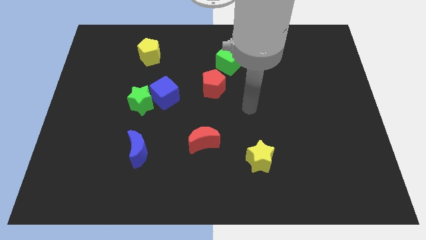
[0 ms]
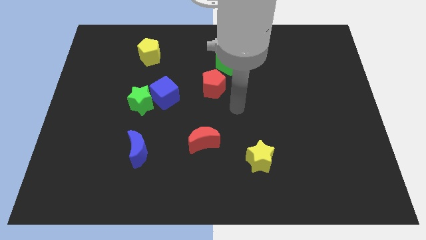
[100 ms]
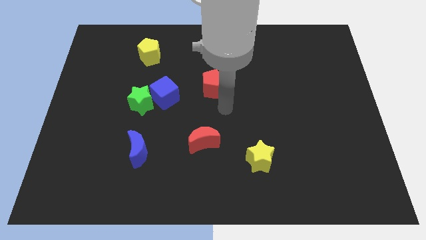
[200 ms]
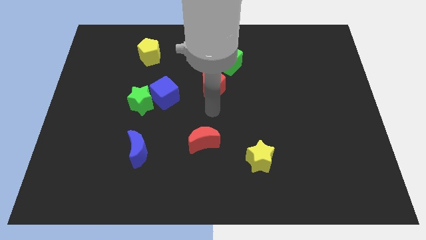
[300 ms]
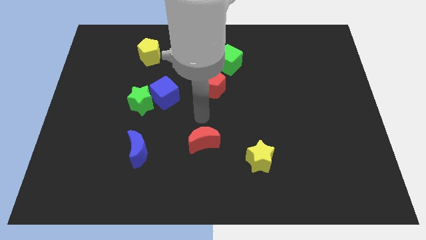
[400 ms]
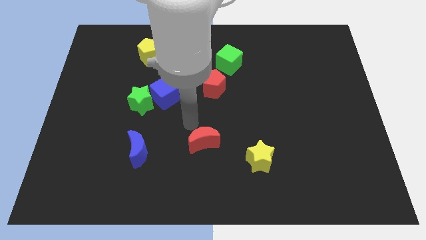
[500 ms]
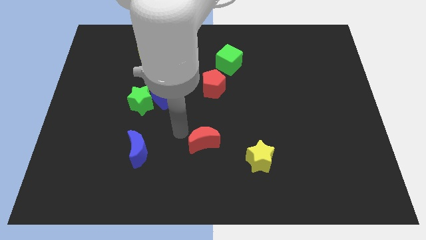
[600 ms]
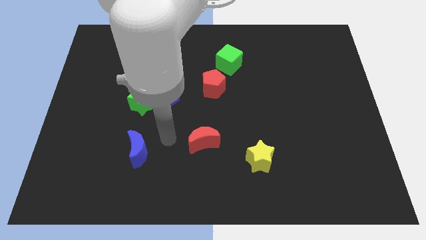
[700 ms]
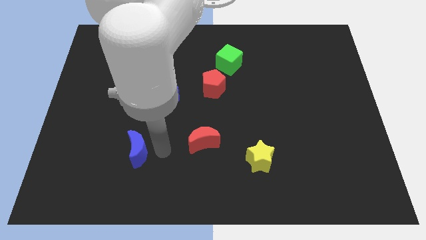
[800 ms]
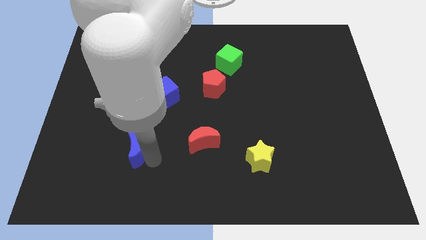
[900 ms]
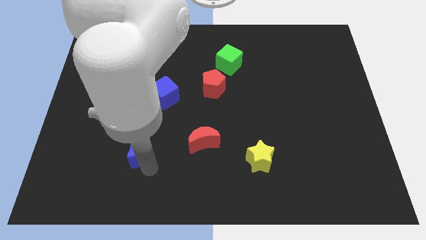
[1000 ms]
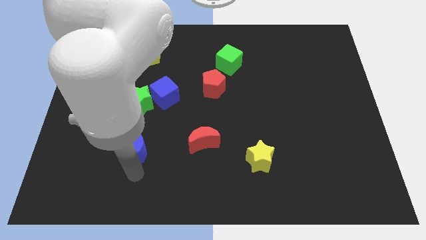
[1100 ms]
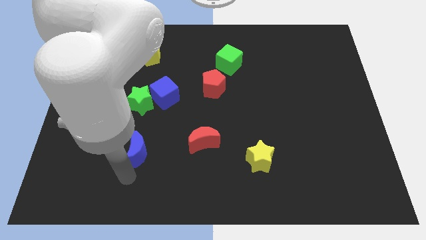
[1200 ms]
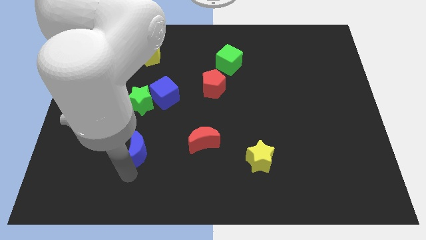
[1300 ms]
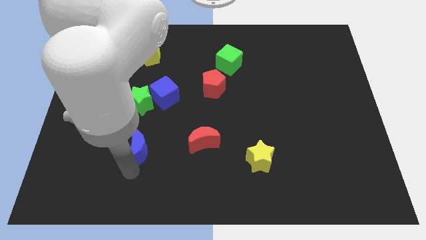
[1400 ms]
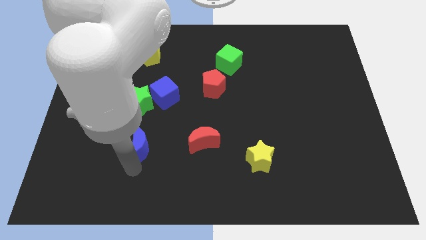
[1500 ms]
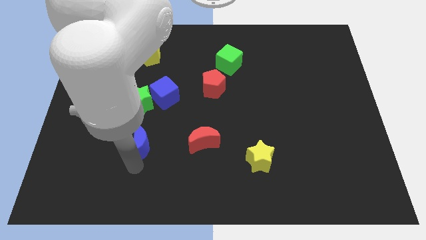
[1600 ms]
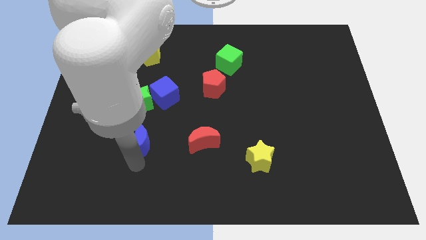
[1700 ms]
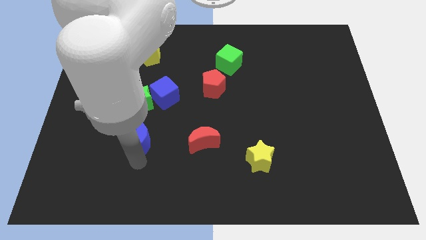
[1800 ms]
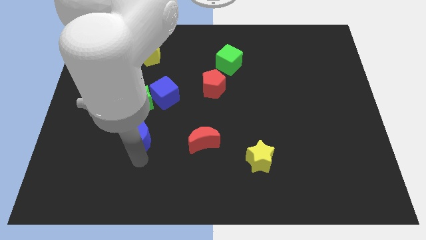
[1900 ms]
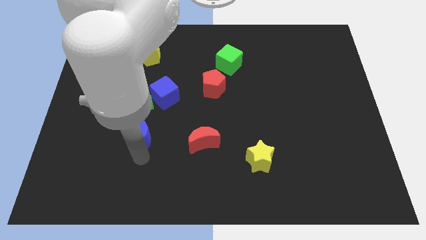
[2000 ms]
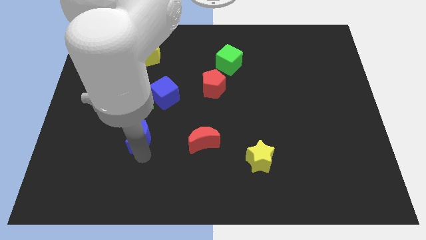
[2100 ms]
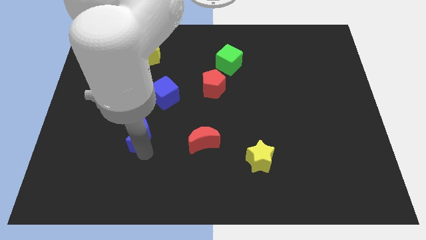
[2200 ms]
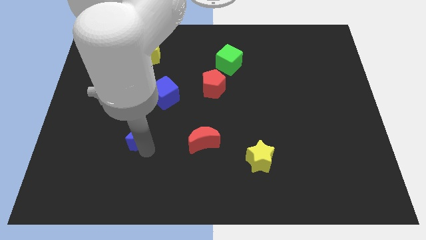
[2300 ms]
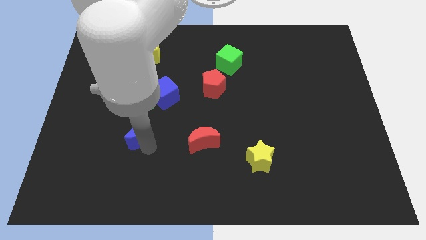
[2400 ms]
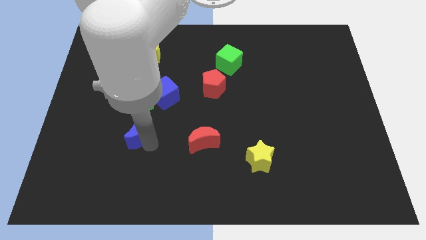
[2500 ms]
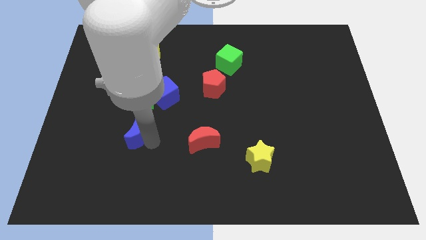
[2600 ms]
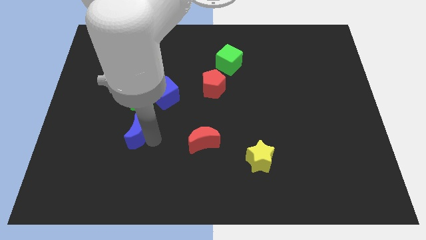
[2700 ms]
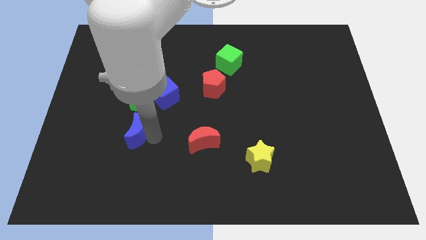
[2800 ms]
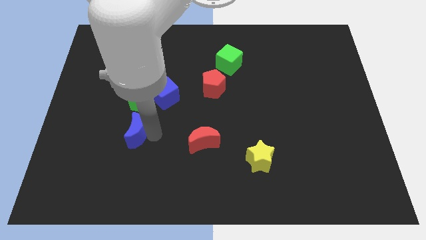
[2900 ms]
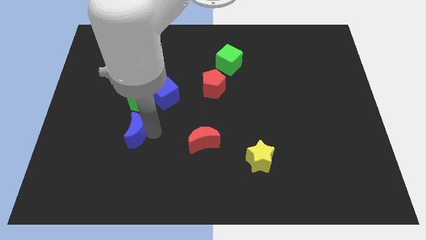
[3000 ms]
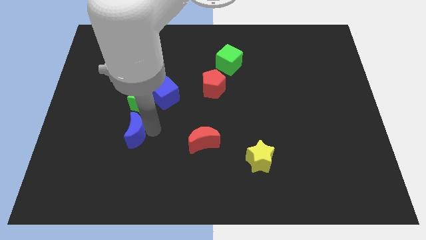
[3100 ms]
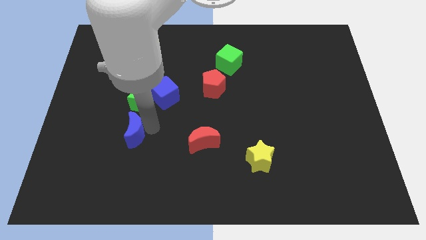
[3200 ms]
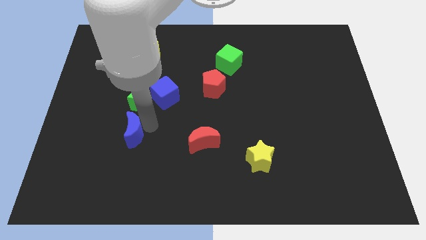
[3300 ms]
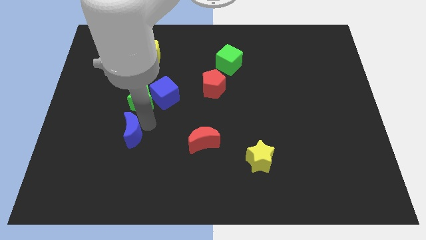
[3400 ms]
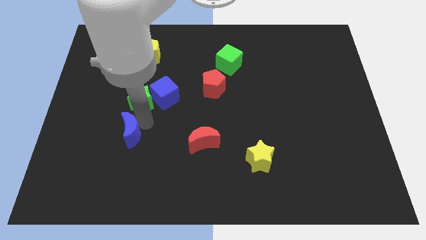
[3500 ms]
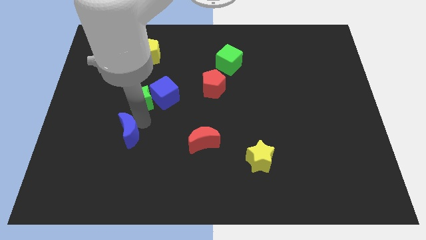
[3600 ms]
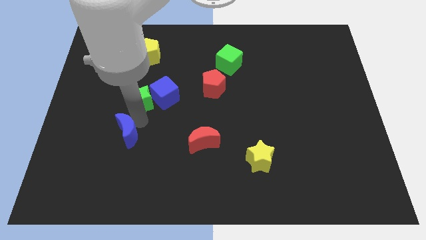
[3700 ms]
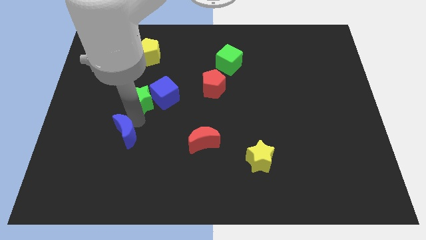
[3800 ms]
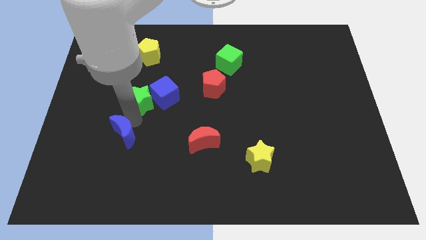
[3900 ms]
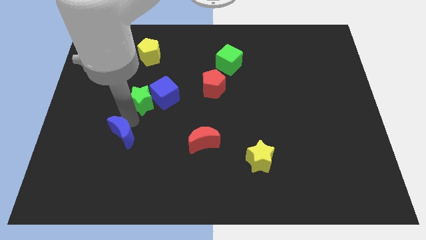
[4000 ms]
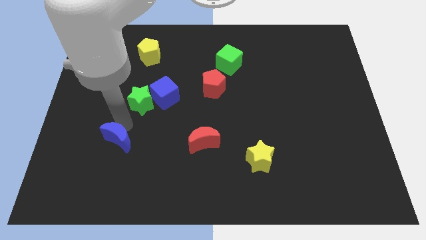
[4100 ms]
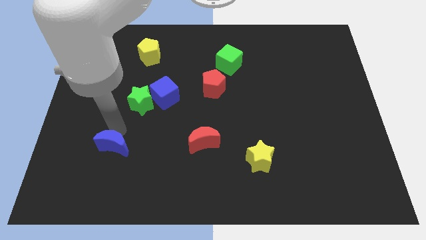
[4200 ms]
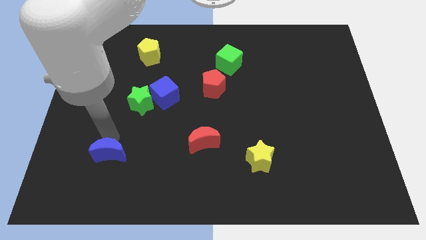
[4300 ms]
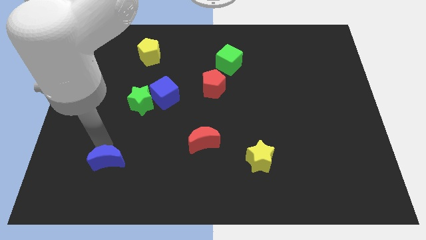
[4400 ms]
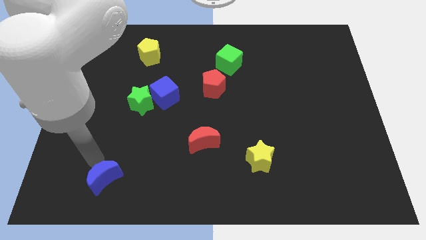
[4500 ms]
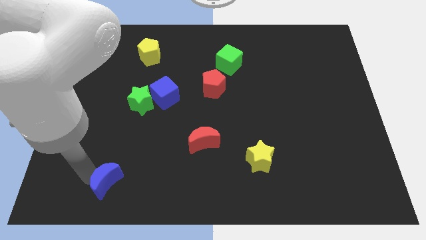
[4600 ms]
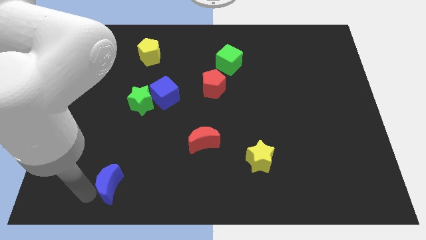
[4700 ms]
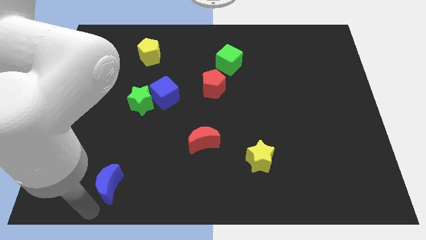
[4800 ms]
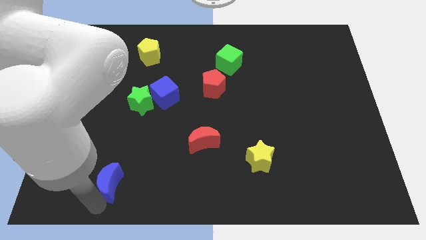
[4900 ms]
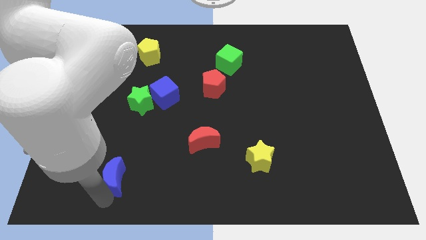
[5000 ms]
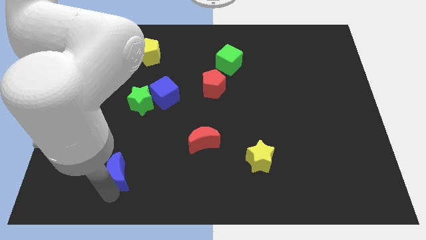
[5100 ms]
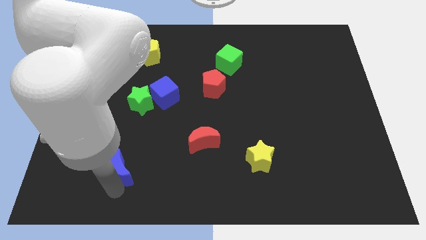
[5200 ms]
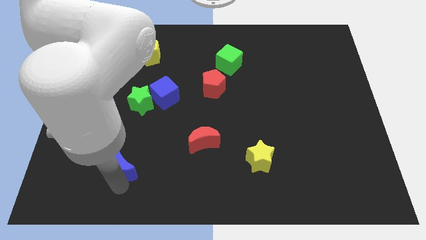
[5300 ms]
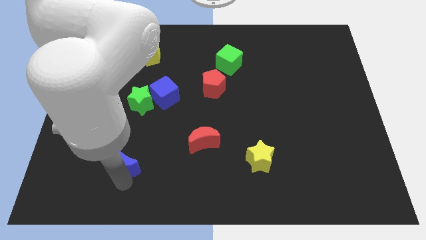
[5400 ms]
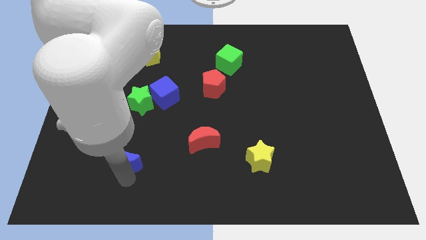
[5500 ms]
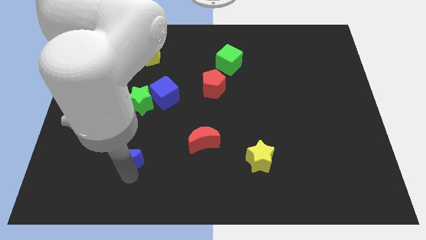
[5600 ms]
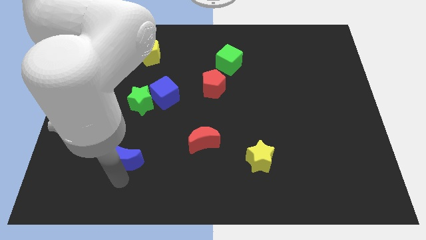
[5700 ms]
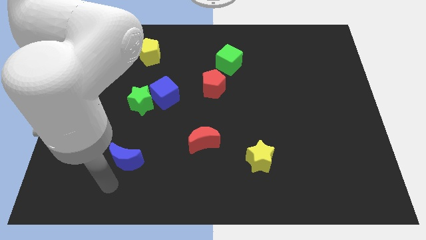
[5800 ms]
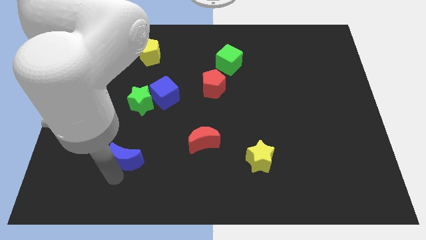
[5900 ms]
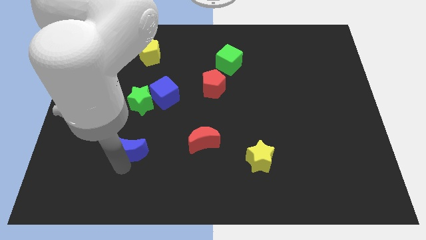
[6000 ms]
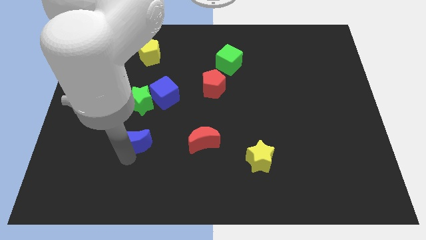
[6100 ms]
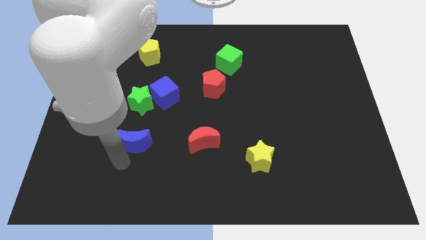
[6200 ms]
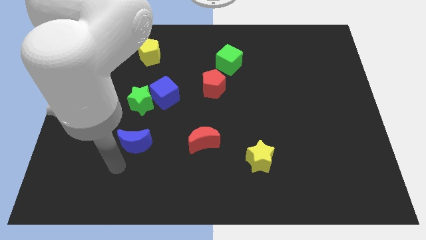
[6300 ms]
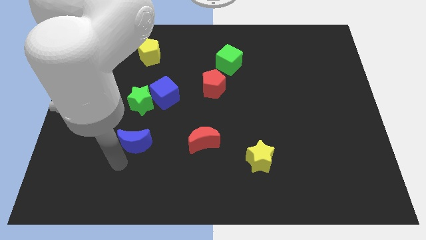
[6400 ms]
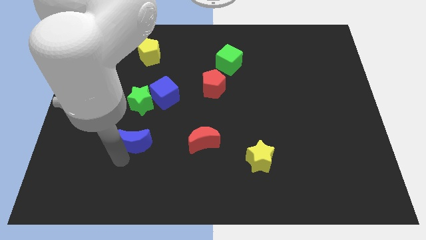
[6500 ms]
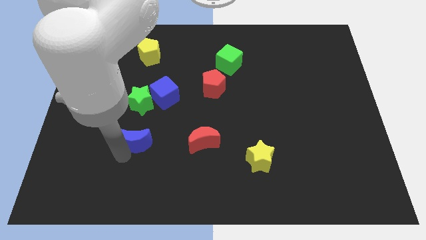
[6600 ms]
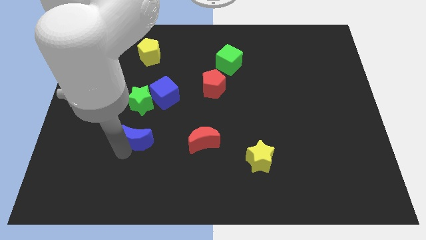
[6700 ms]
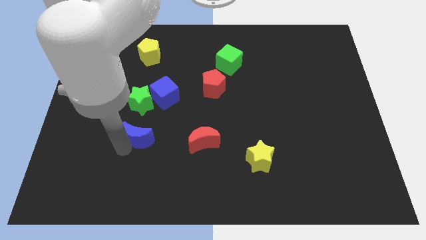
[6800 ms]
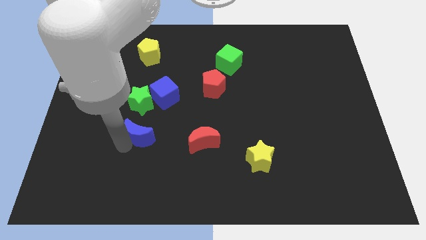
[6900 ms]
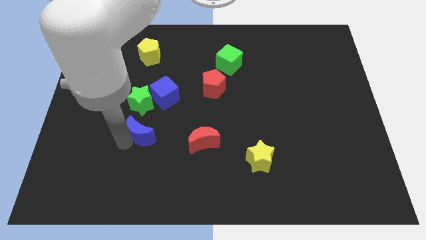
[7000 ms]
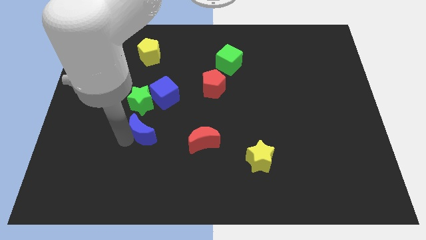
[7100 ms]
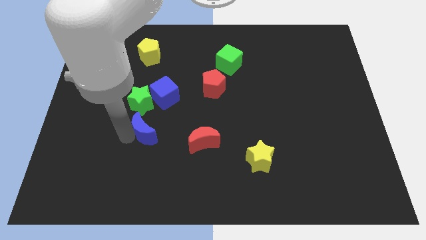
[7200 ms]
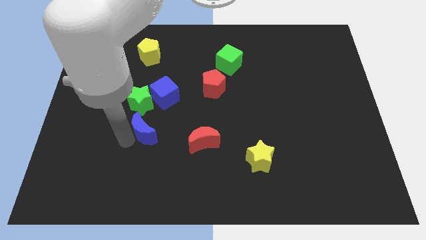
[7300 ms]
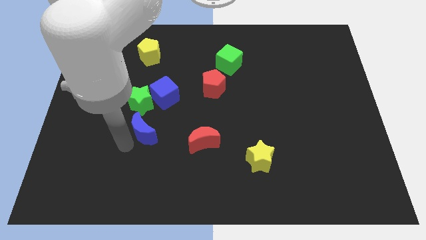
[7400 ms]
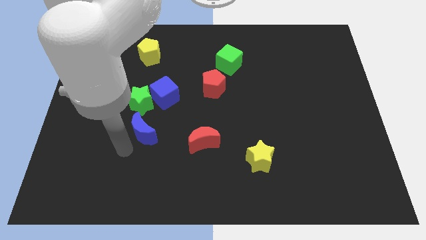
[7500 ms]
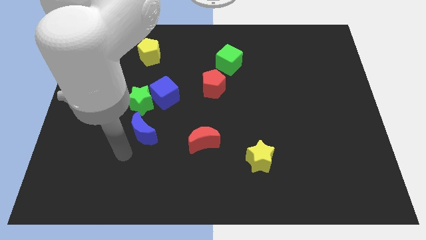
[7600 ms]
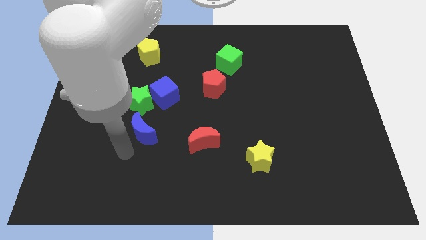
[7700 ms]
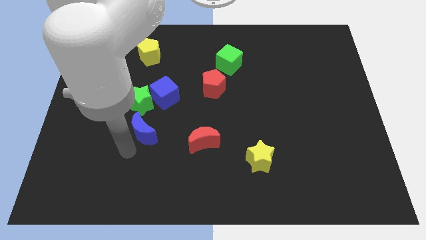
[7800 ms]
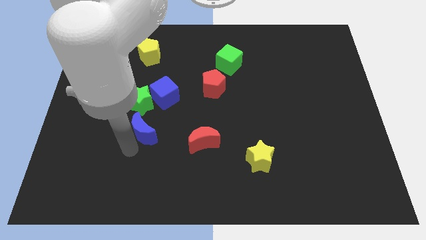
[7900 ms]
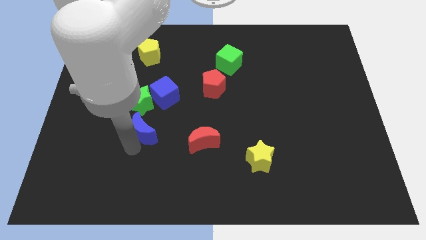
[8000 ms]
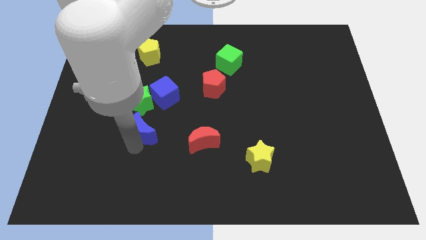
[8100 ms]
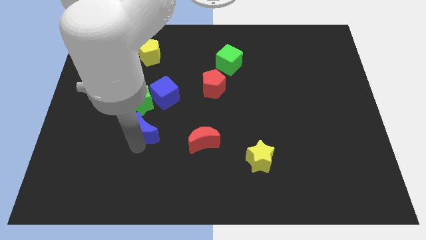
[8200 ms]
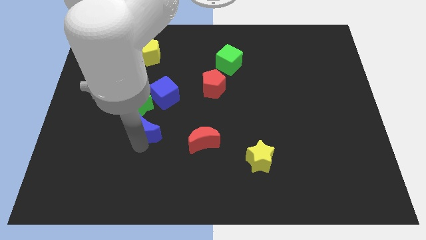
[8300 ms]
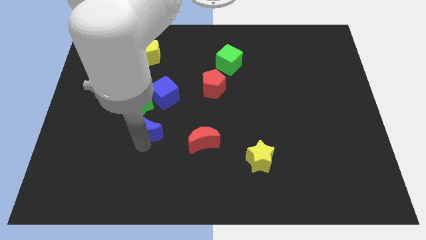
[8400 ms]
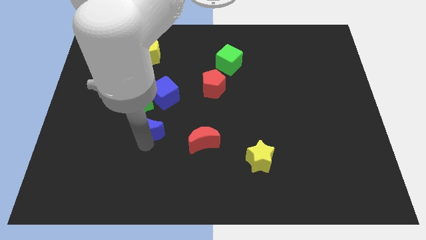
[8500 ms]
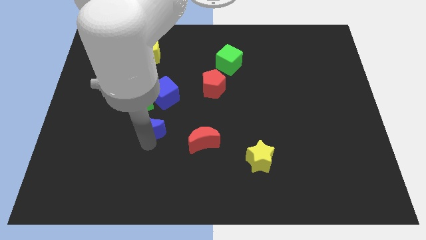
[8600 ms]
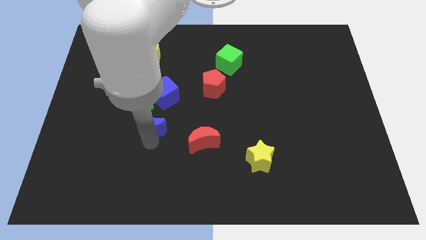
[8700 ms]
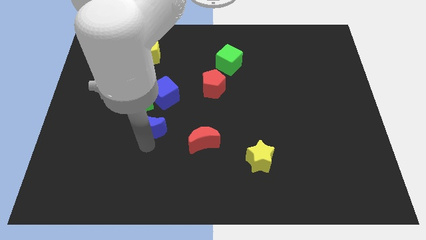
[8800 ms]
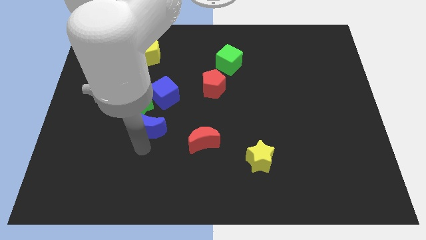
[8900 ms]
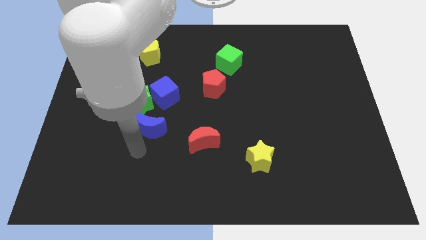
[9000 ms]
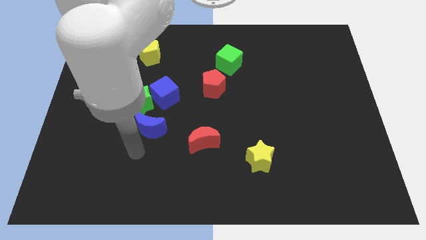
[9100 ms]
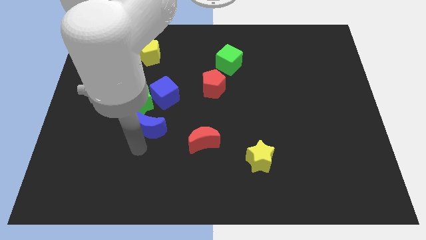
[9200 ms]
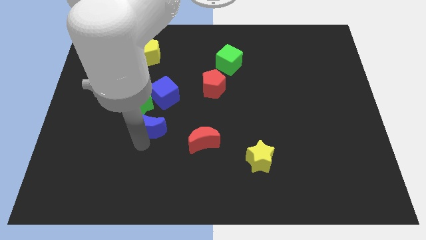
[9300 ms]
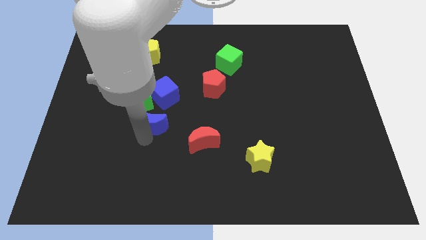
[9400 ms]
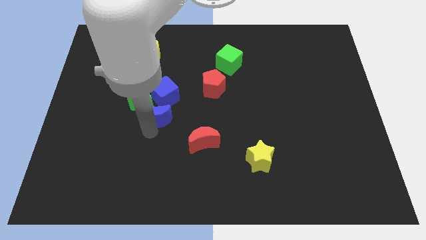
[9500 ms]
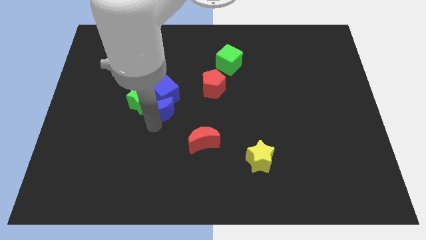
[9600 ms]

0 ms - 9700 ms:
slide the blue moon to the blue cube
